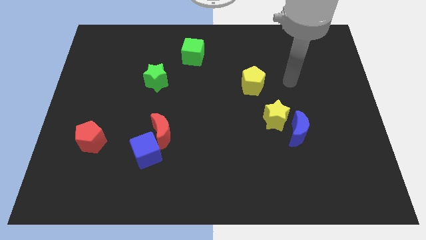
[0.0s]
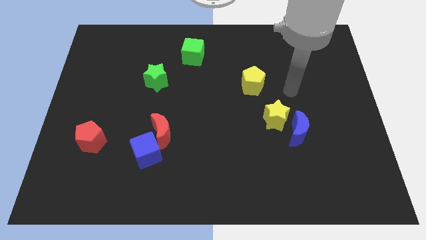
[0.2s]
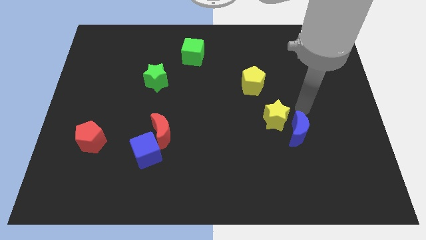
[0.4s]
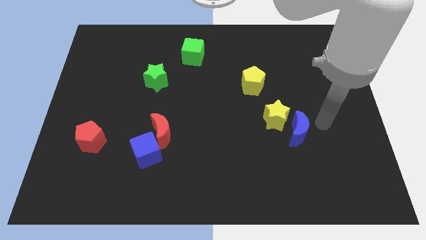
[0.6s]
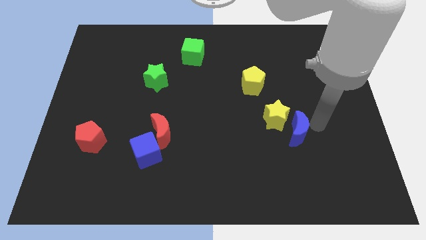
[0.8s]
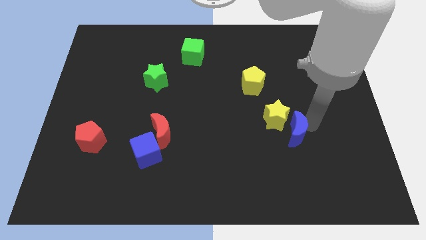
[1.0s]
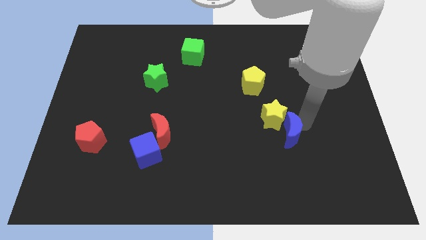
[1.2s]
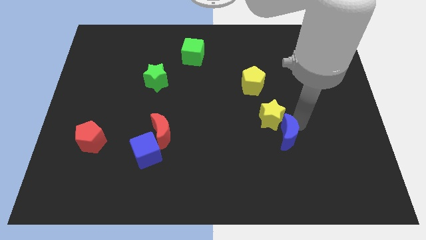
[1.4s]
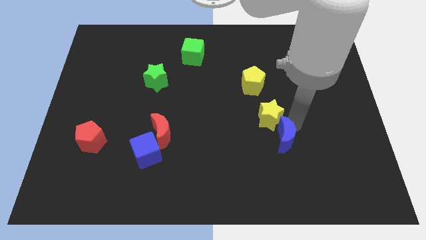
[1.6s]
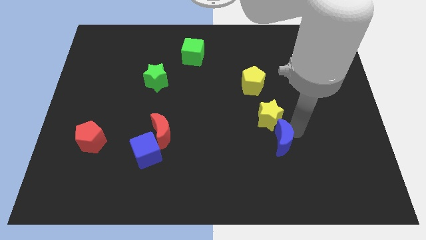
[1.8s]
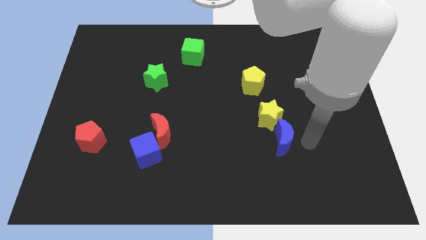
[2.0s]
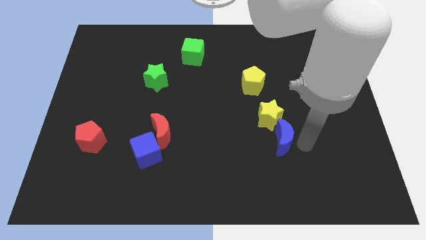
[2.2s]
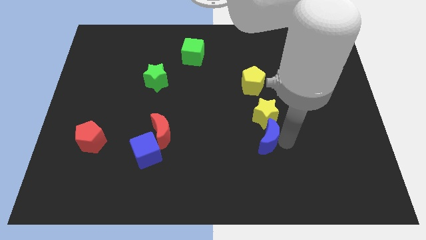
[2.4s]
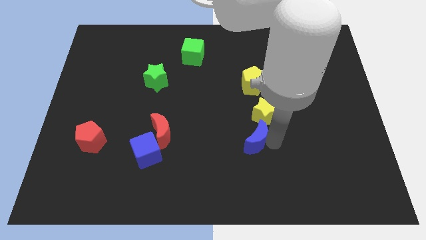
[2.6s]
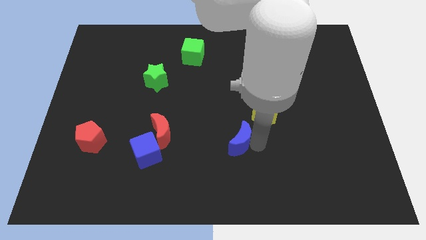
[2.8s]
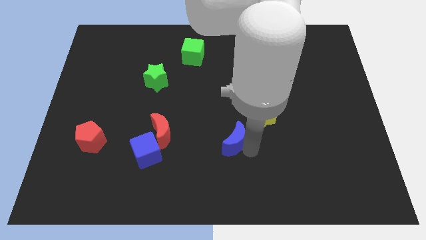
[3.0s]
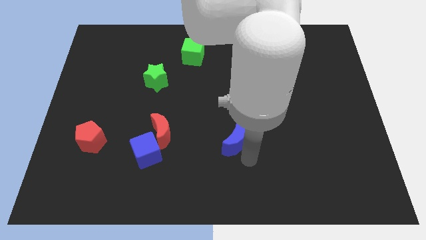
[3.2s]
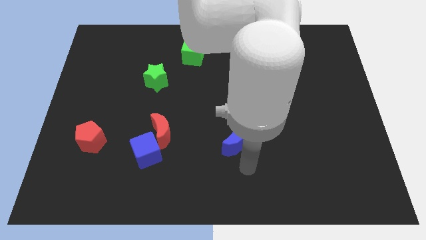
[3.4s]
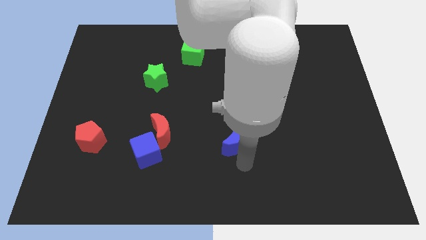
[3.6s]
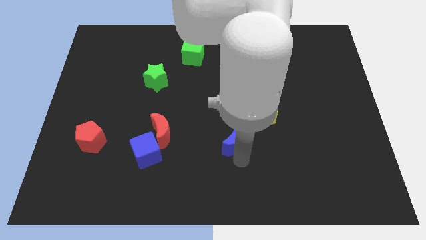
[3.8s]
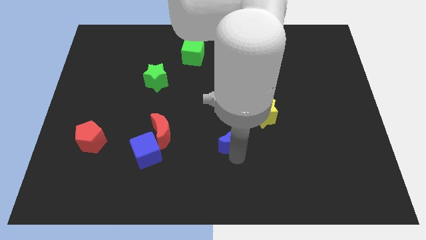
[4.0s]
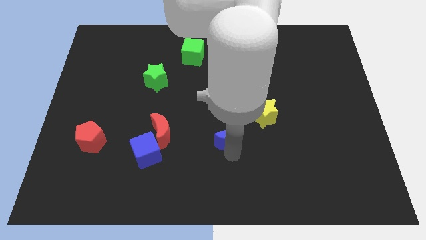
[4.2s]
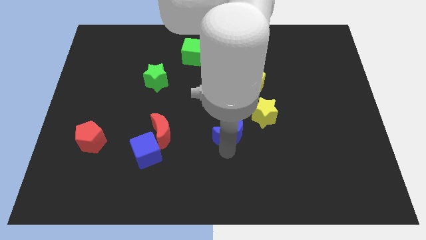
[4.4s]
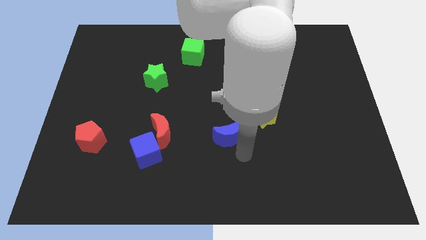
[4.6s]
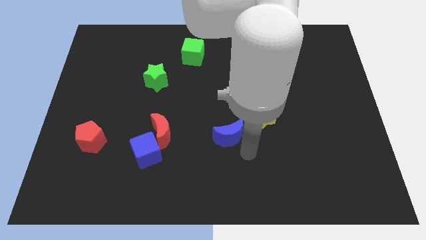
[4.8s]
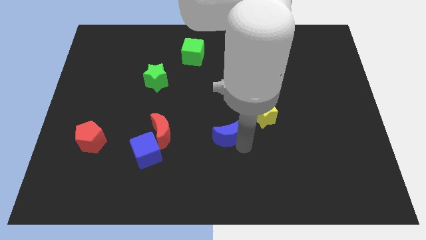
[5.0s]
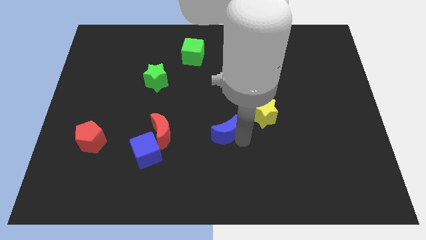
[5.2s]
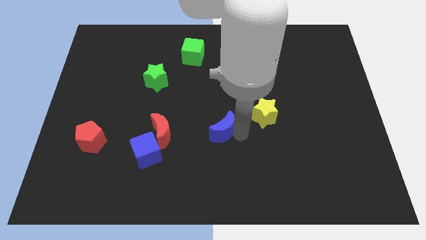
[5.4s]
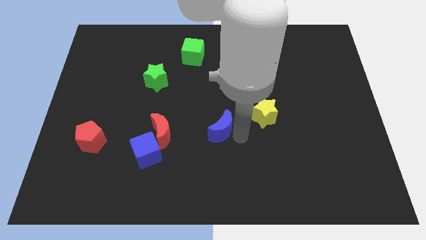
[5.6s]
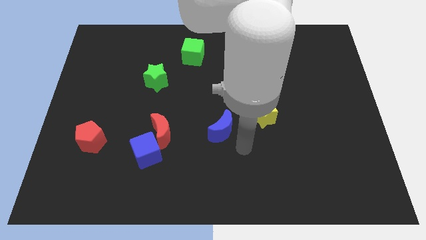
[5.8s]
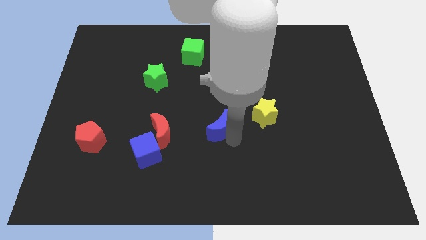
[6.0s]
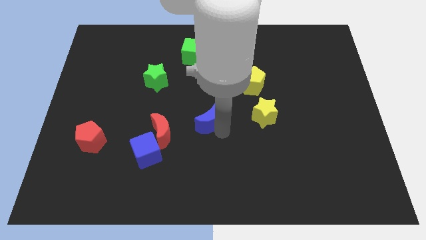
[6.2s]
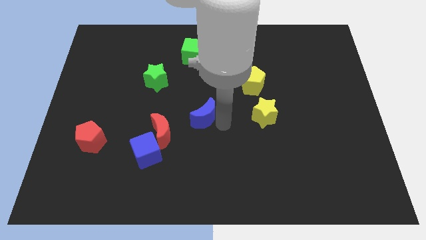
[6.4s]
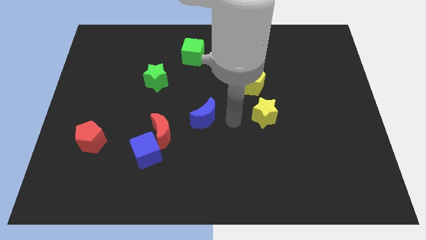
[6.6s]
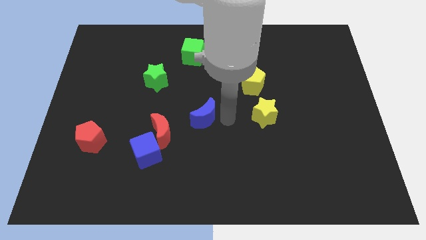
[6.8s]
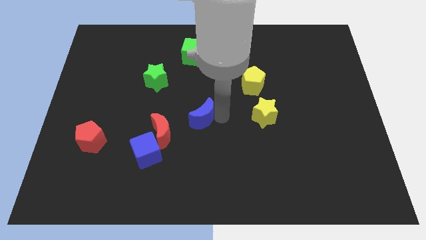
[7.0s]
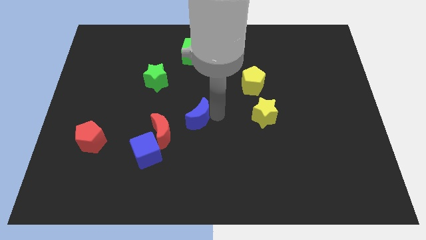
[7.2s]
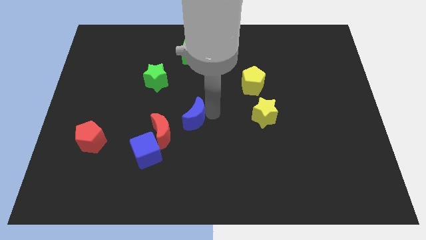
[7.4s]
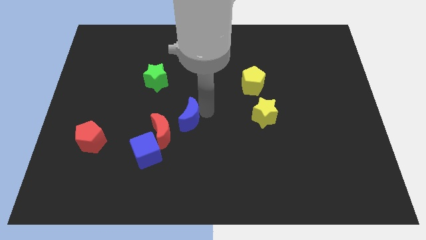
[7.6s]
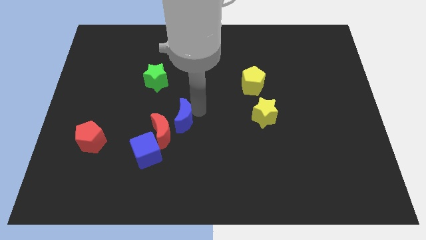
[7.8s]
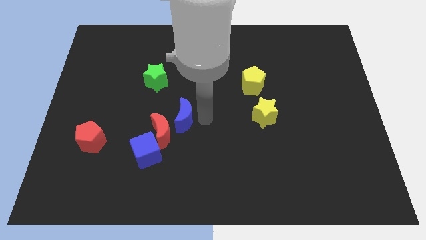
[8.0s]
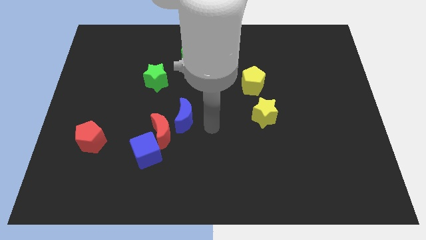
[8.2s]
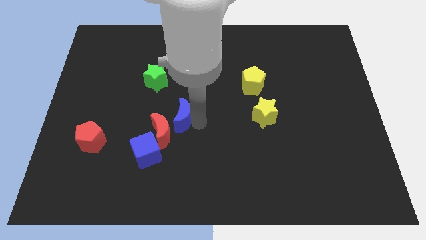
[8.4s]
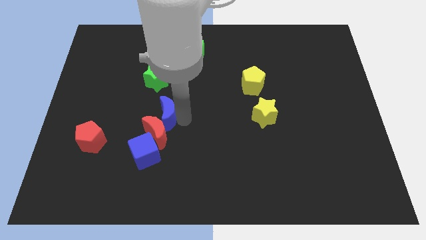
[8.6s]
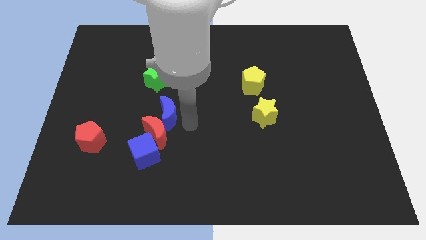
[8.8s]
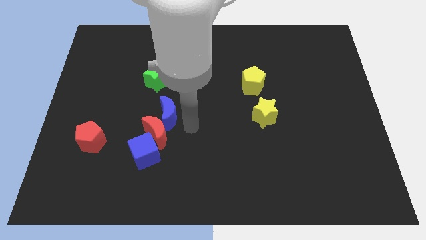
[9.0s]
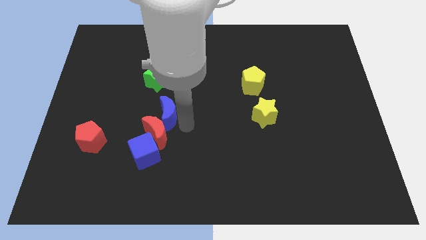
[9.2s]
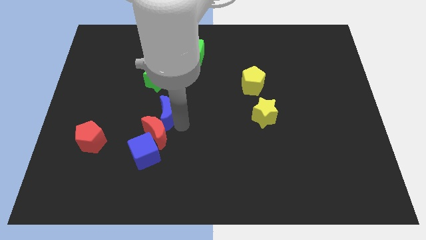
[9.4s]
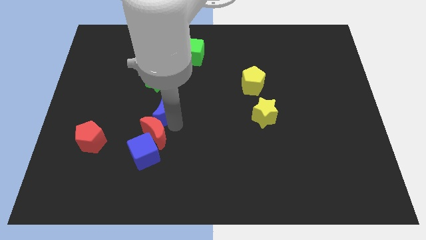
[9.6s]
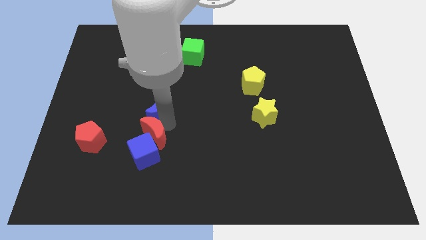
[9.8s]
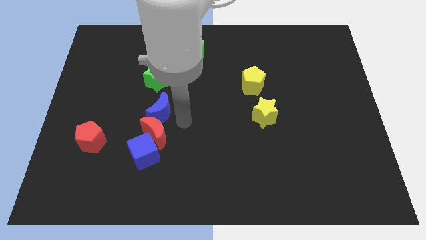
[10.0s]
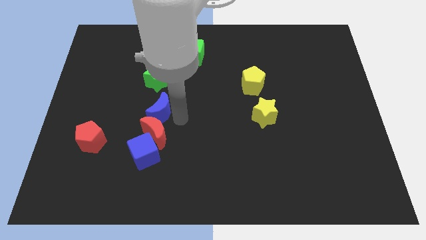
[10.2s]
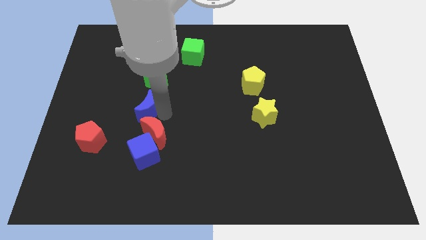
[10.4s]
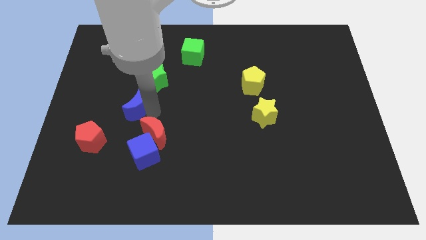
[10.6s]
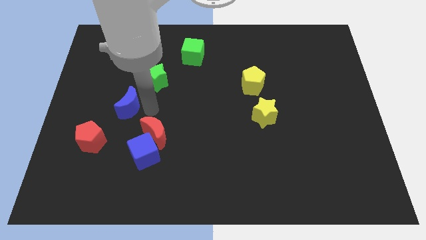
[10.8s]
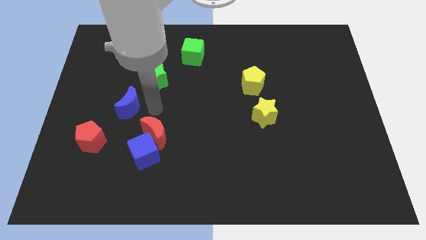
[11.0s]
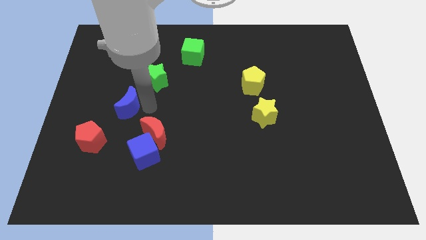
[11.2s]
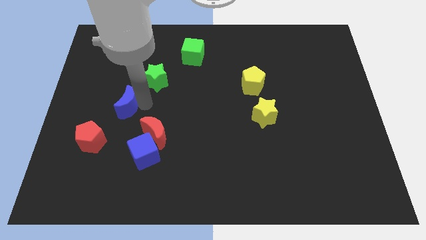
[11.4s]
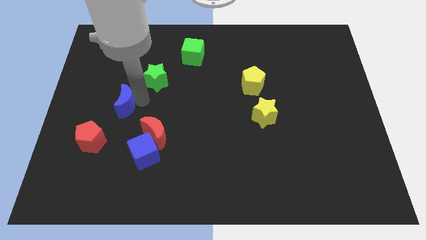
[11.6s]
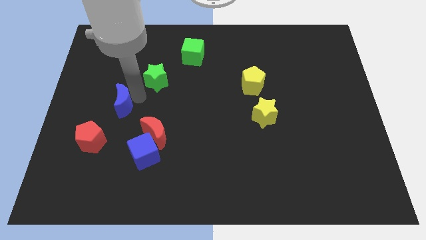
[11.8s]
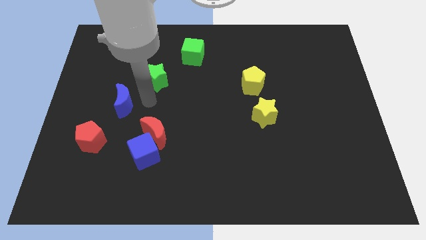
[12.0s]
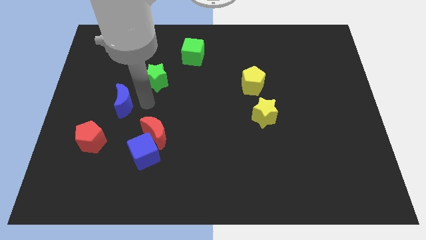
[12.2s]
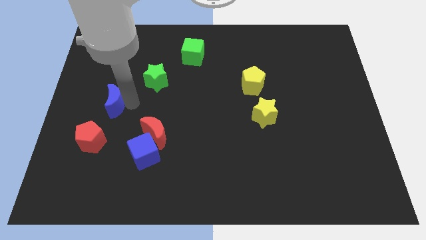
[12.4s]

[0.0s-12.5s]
move the blue moon above the red pentagon
